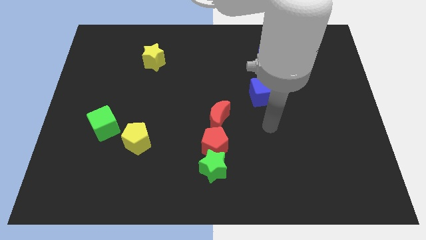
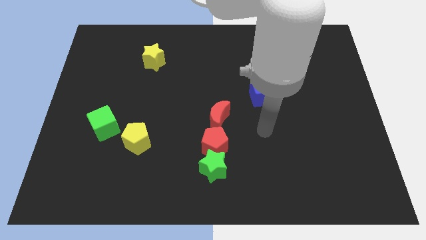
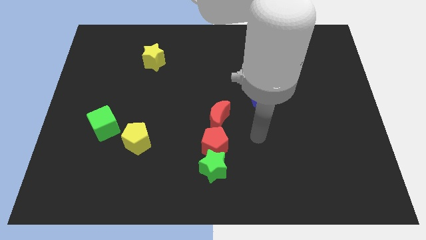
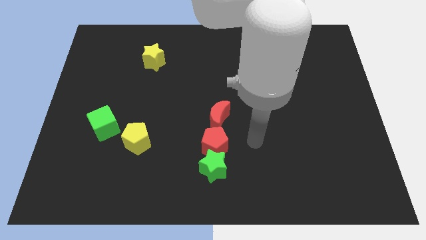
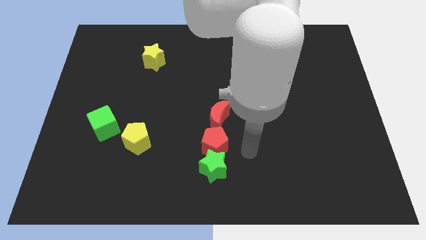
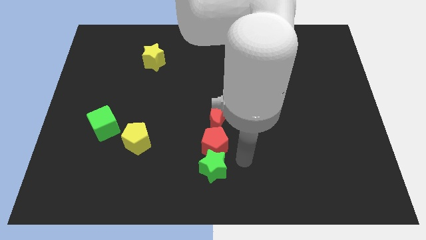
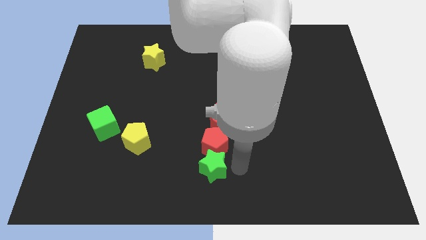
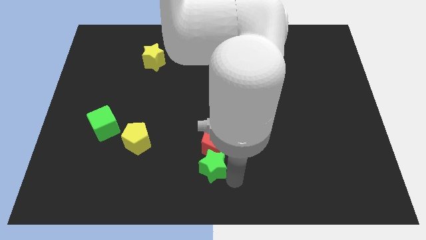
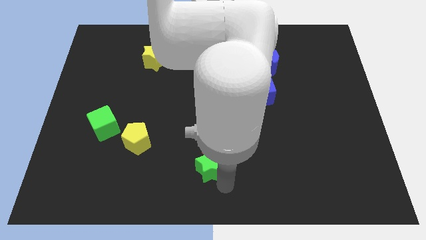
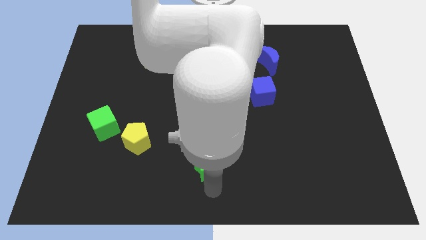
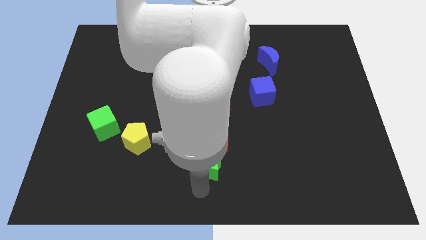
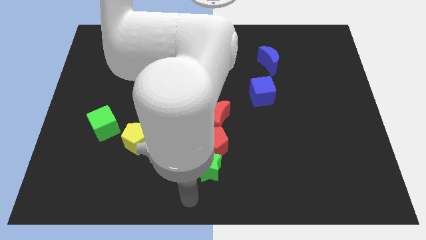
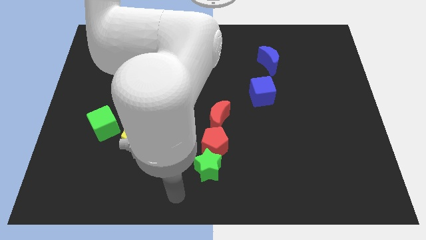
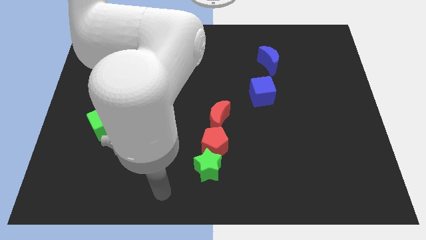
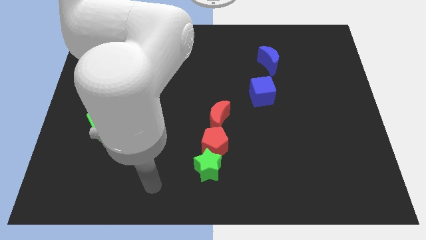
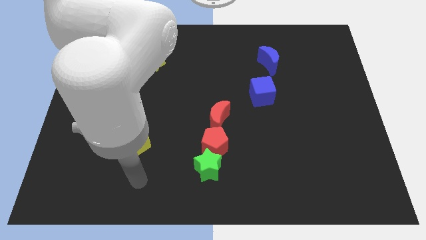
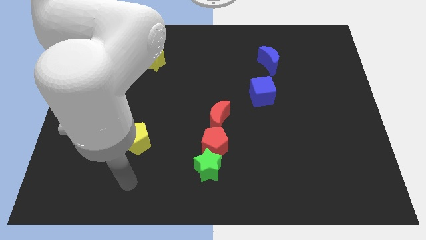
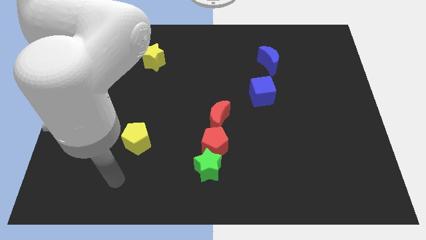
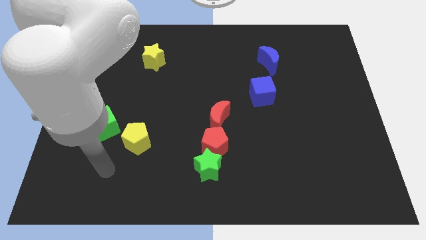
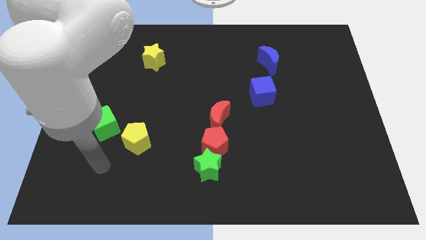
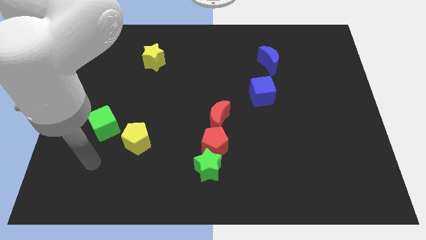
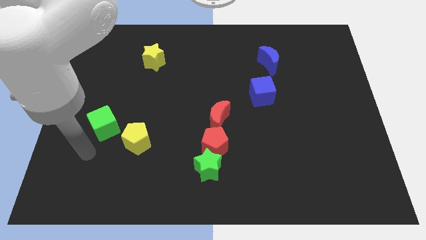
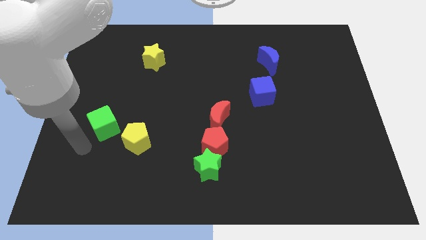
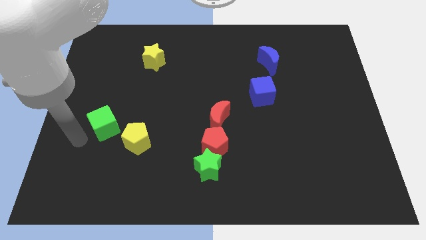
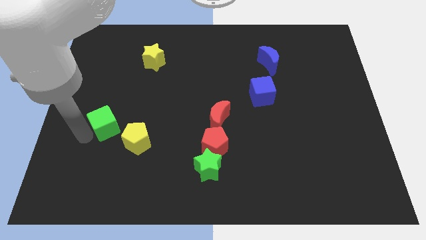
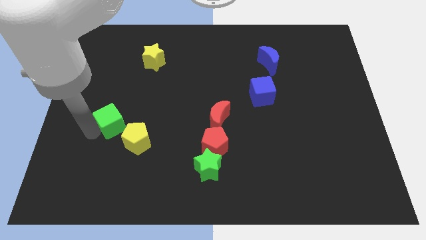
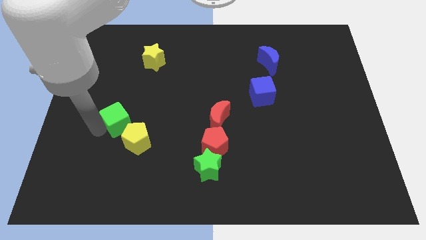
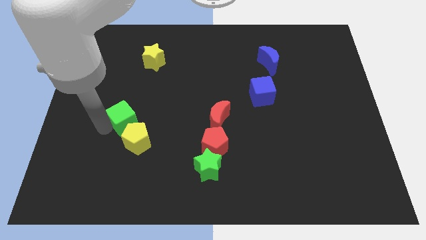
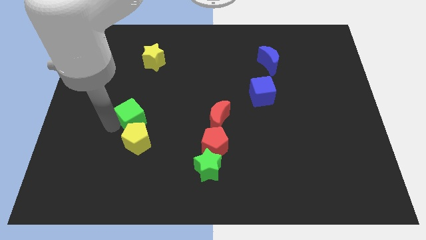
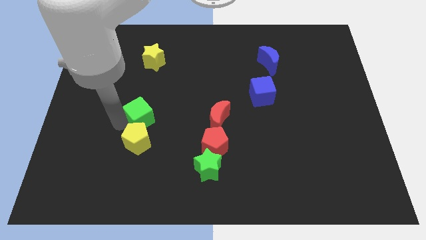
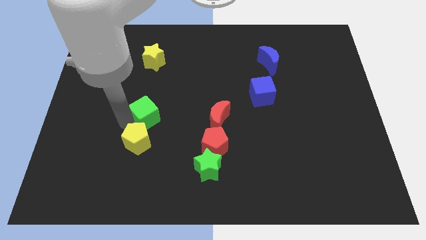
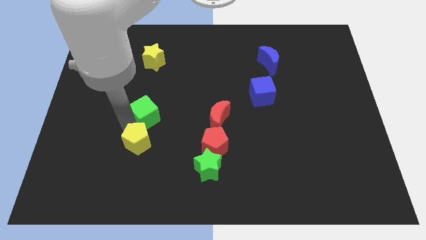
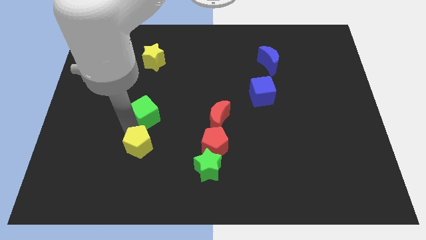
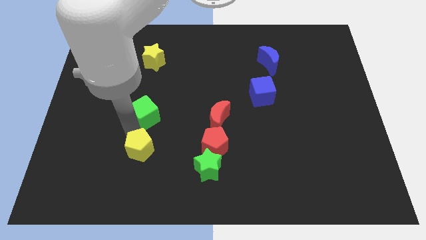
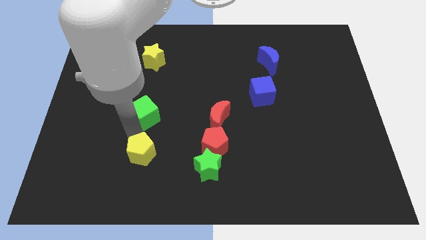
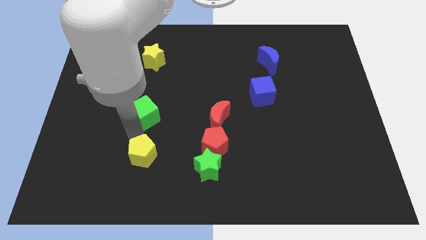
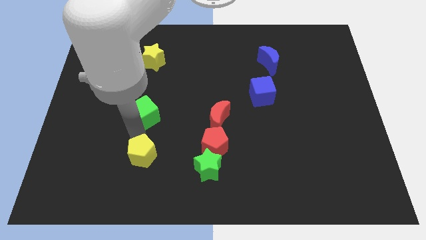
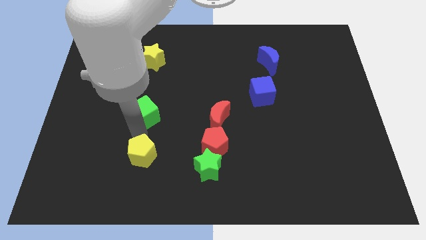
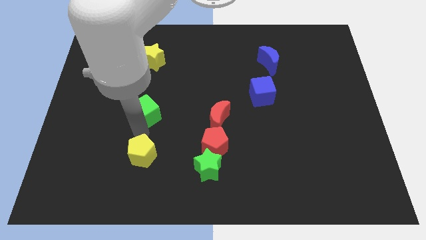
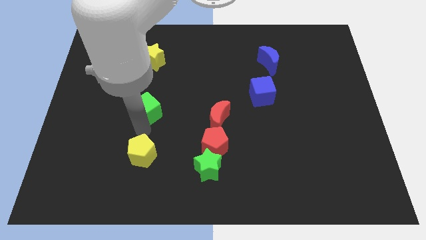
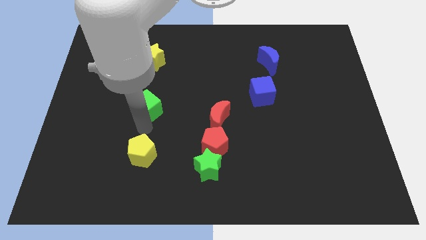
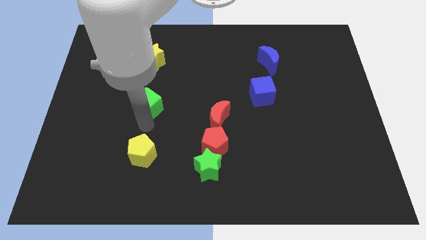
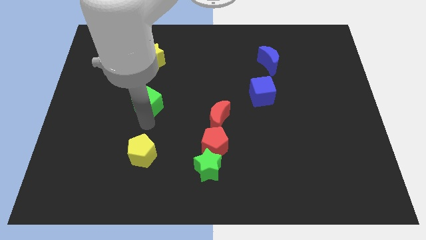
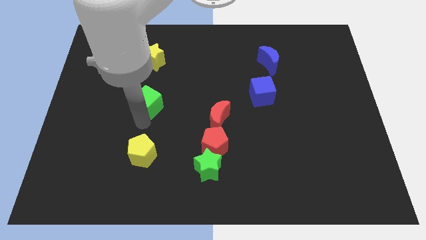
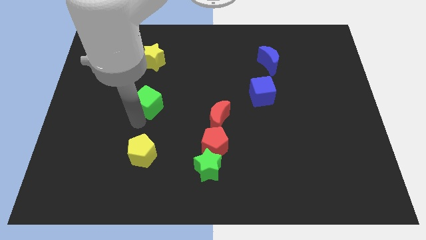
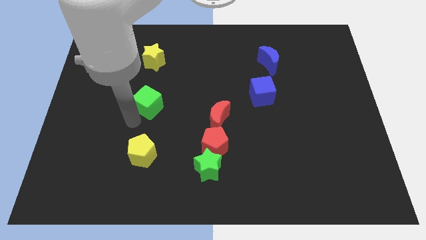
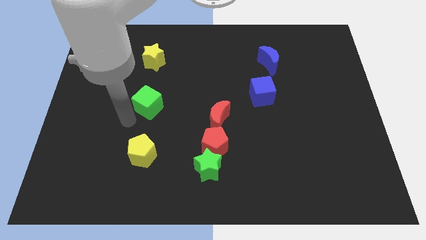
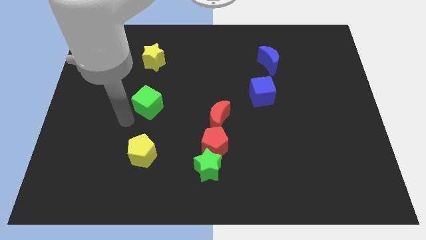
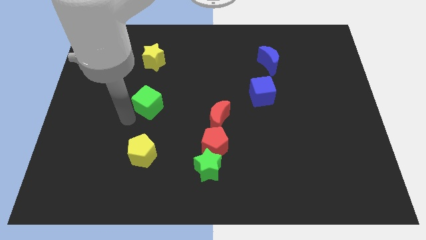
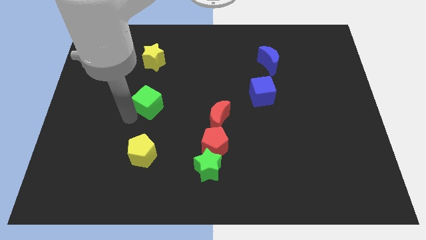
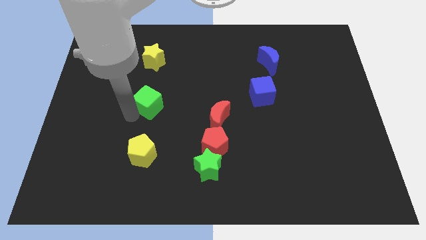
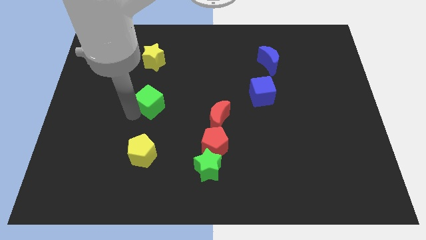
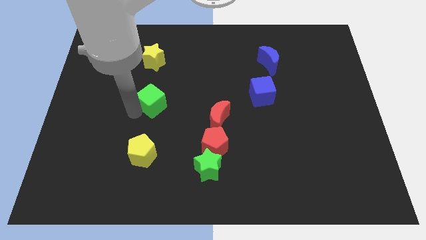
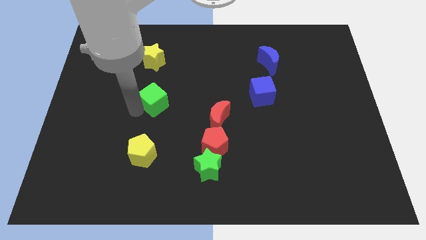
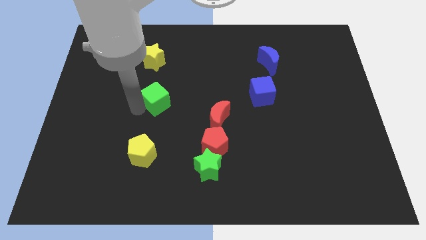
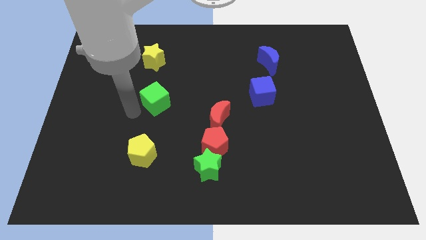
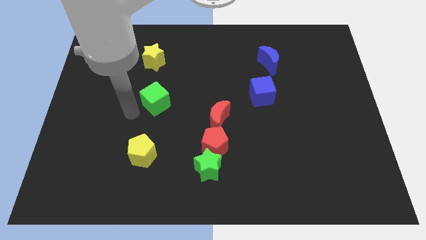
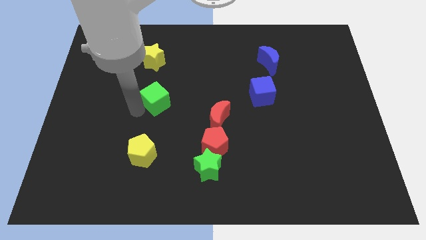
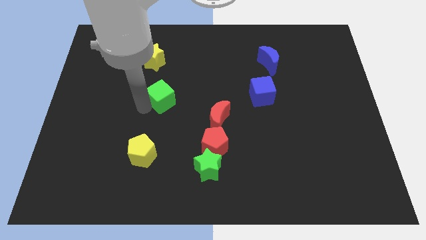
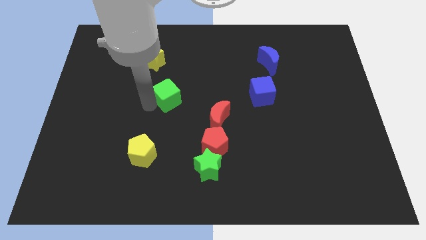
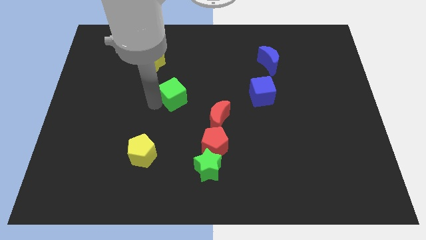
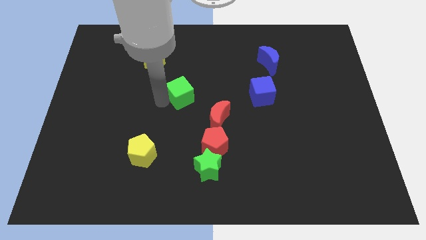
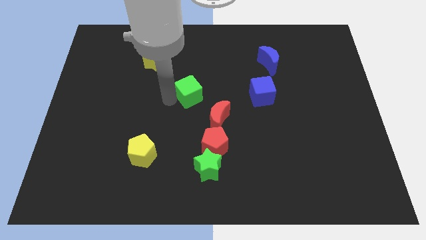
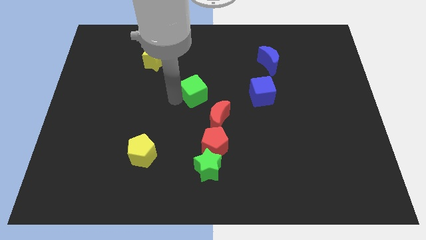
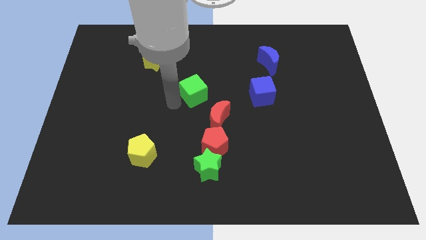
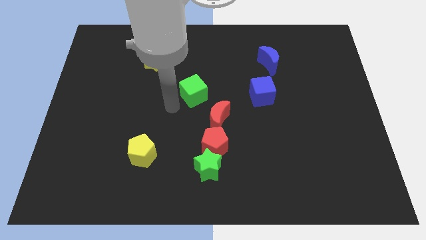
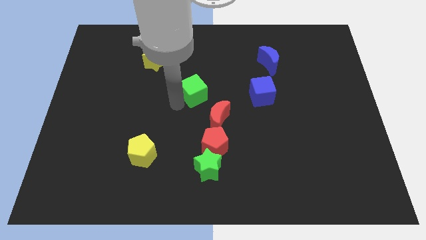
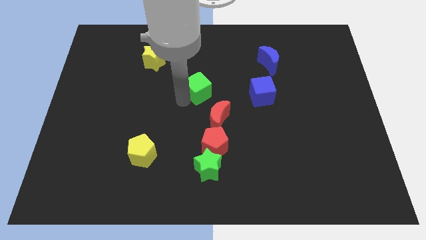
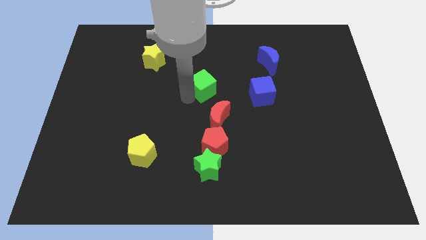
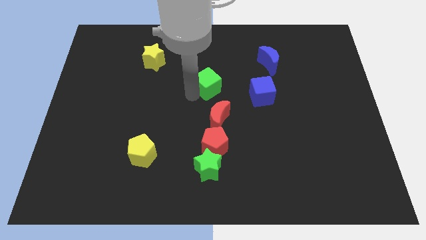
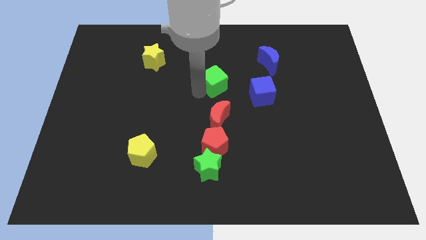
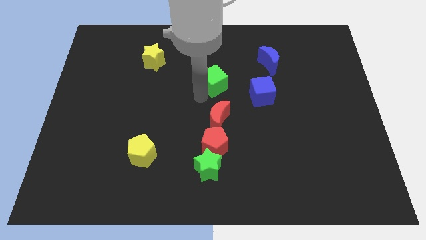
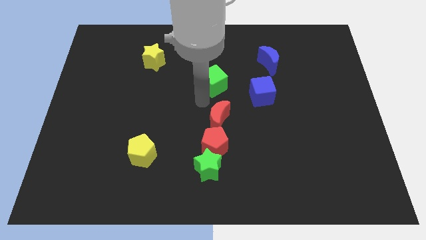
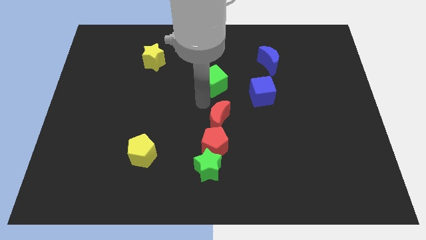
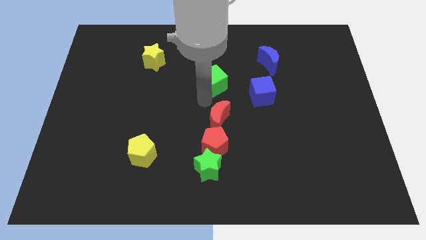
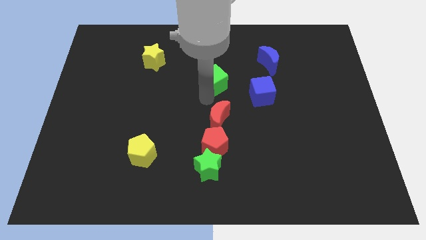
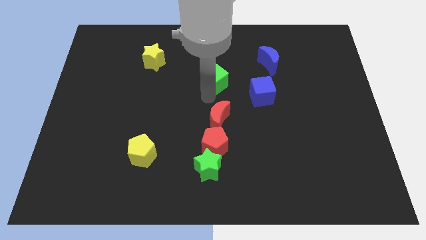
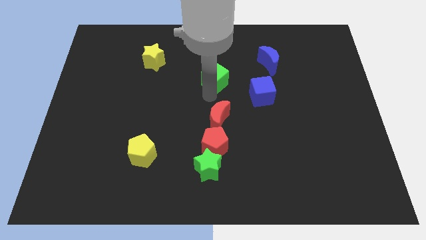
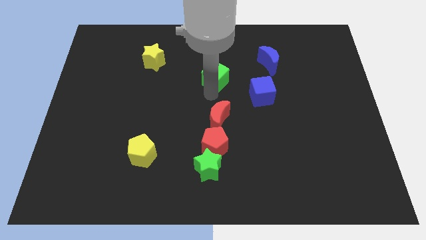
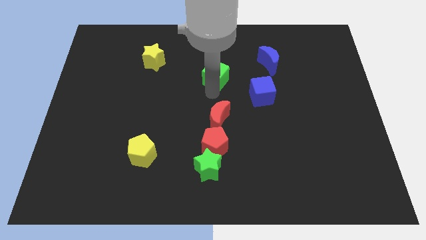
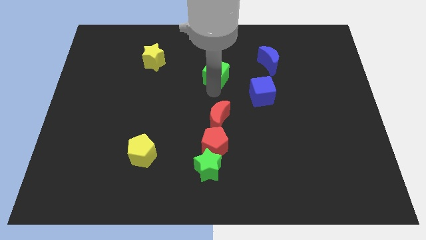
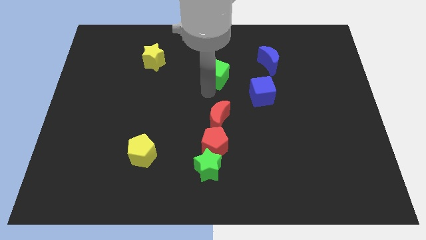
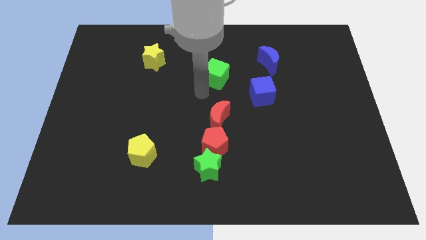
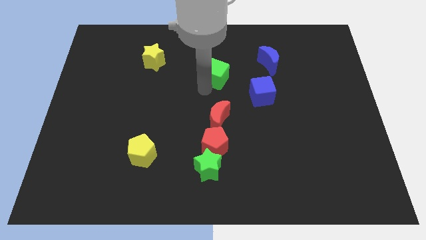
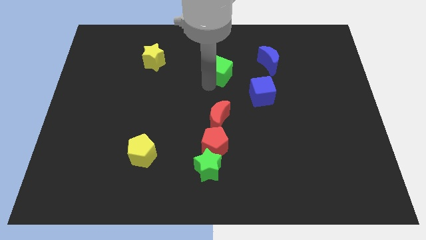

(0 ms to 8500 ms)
push the green cube left of the blue moon
